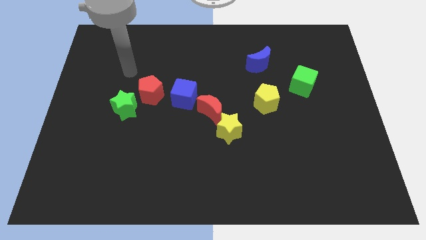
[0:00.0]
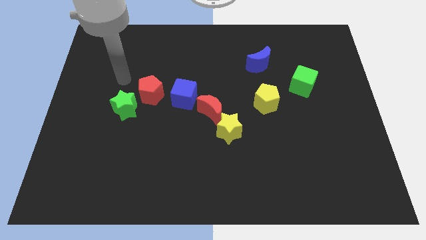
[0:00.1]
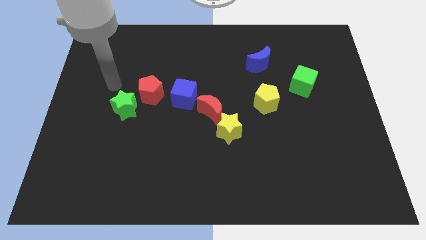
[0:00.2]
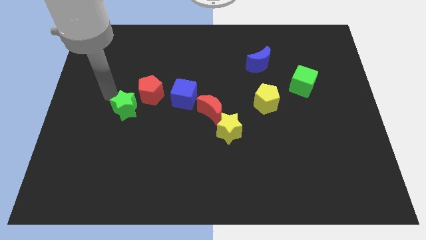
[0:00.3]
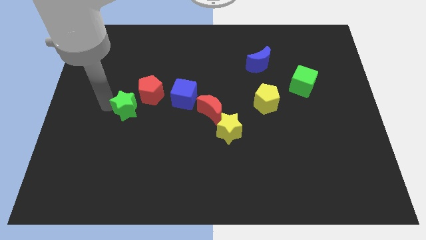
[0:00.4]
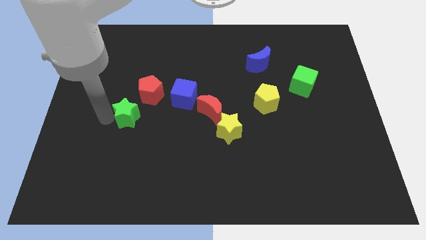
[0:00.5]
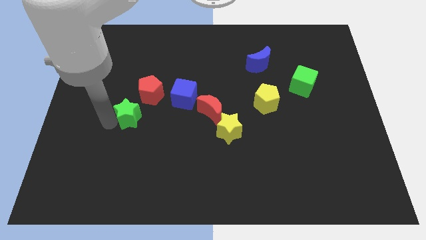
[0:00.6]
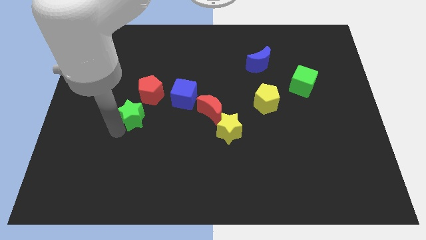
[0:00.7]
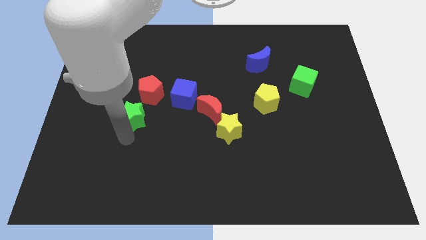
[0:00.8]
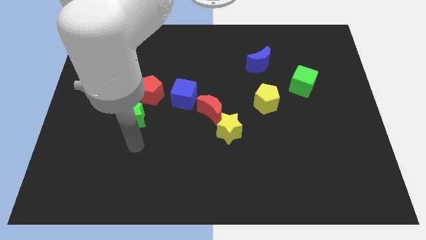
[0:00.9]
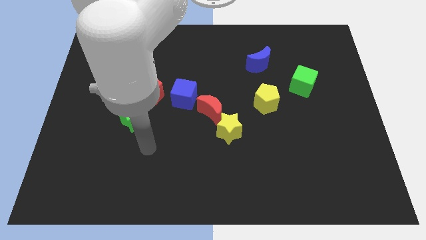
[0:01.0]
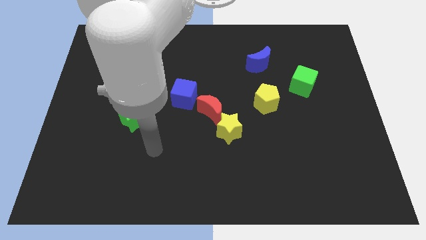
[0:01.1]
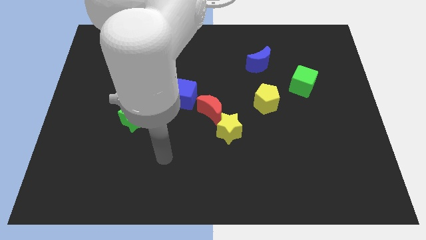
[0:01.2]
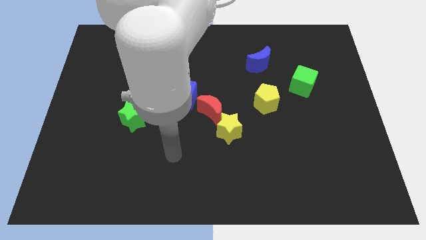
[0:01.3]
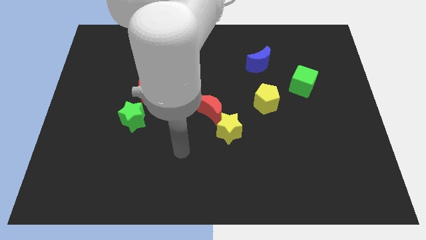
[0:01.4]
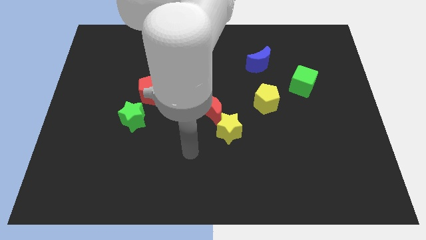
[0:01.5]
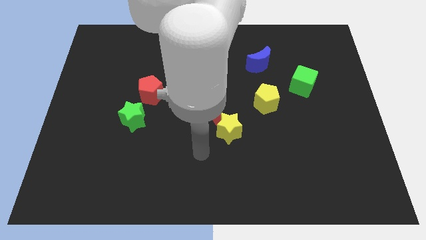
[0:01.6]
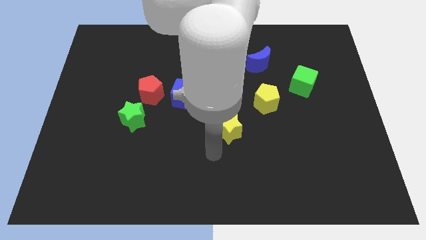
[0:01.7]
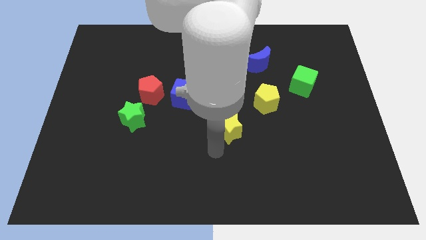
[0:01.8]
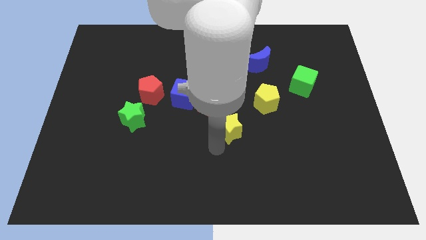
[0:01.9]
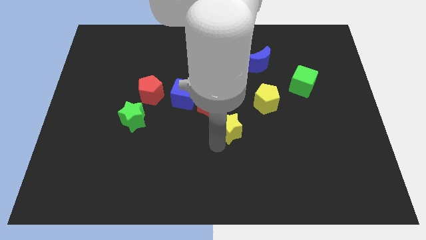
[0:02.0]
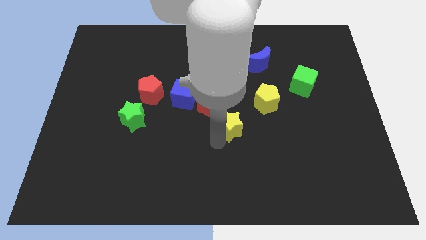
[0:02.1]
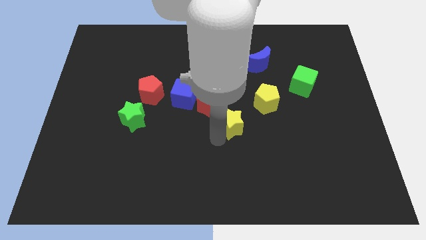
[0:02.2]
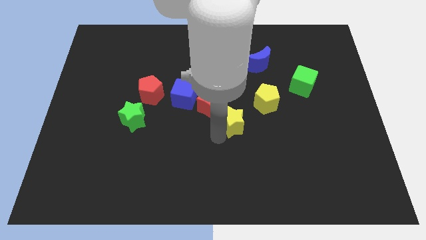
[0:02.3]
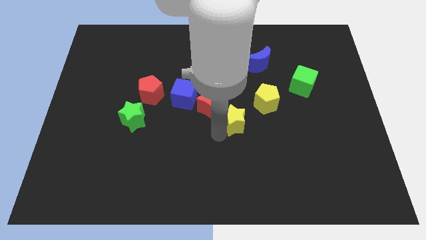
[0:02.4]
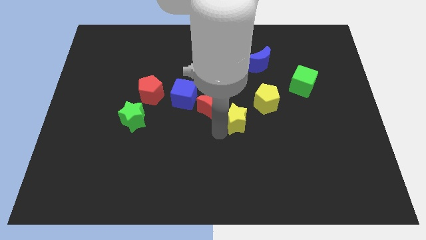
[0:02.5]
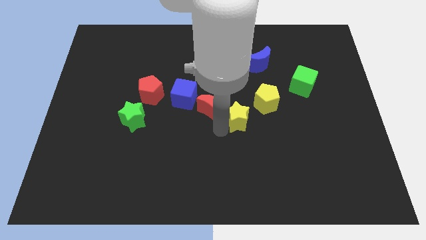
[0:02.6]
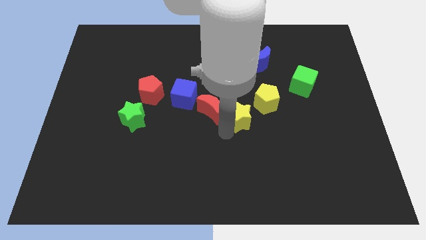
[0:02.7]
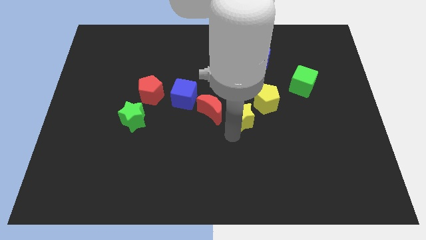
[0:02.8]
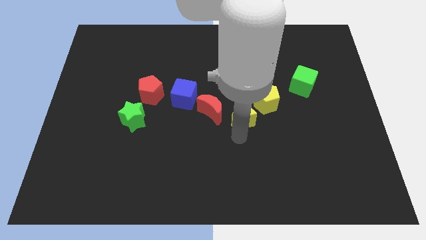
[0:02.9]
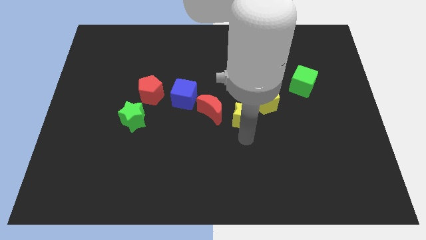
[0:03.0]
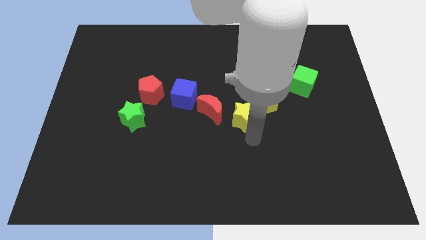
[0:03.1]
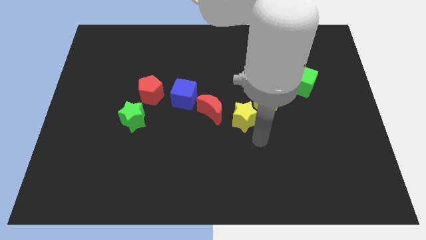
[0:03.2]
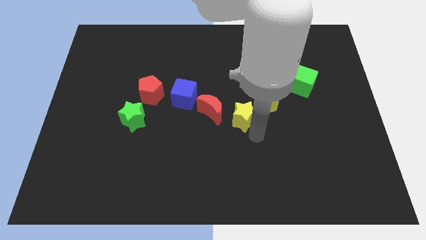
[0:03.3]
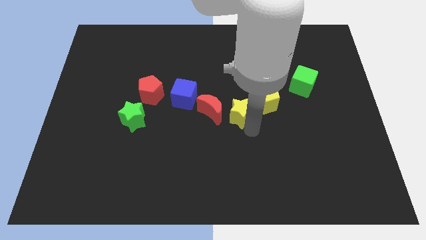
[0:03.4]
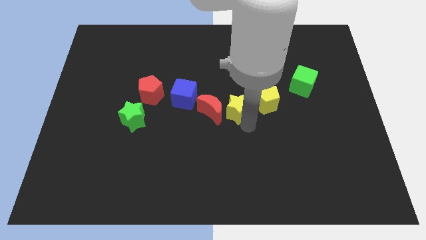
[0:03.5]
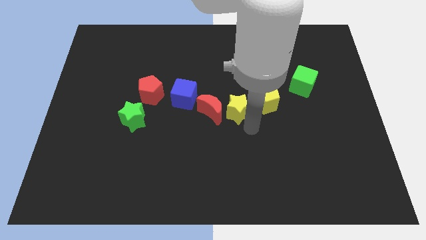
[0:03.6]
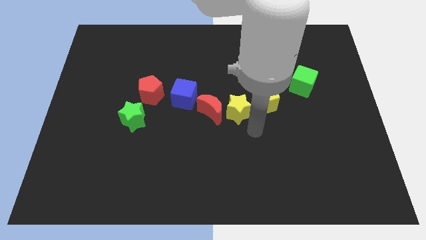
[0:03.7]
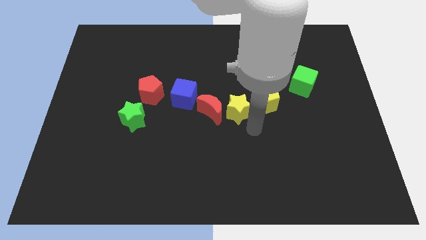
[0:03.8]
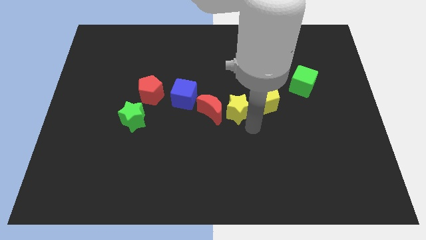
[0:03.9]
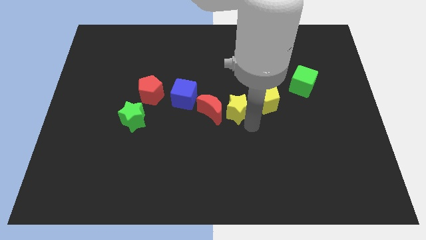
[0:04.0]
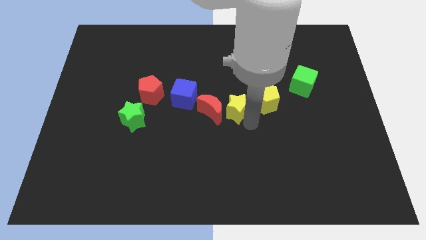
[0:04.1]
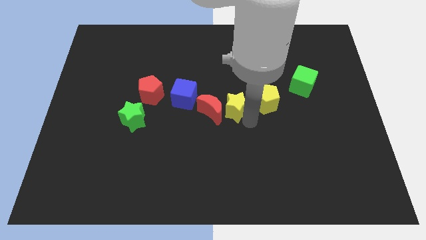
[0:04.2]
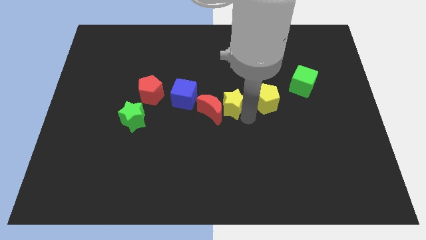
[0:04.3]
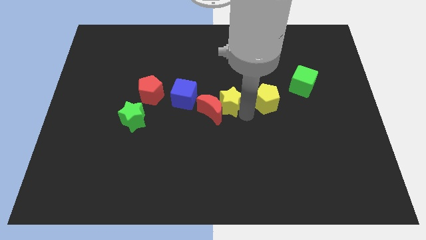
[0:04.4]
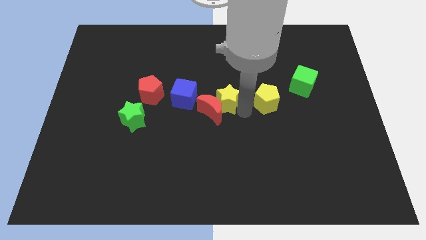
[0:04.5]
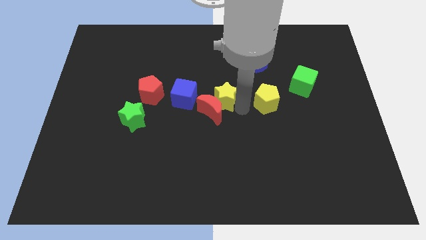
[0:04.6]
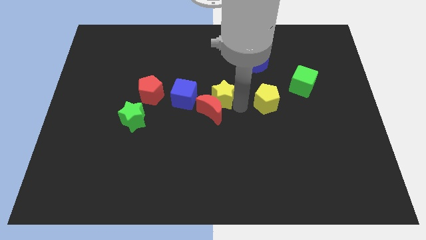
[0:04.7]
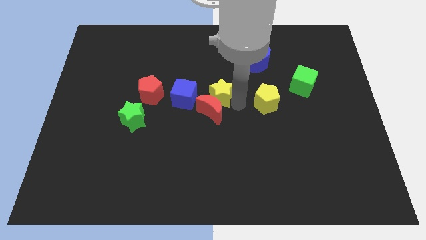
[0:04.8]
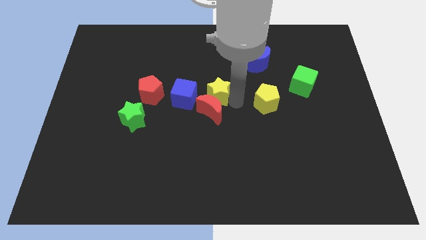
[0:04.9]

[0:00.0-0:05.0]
slightly move the yellow star upwards and left

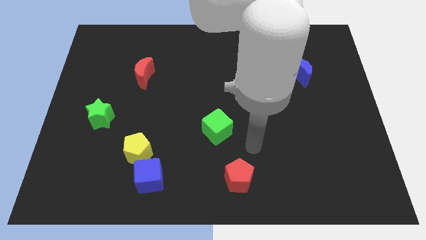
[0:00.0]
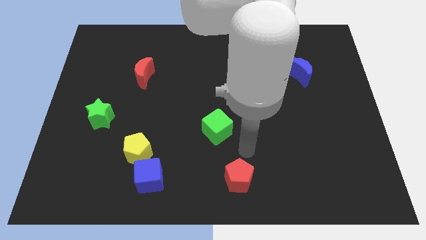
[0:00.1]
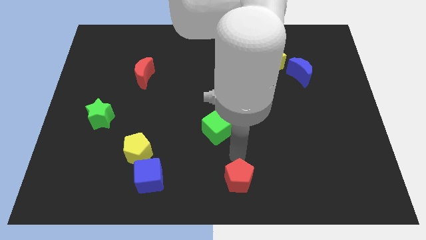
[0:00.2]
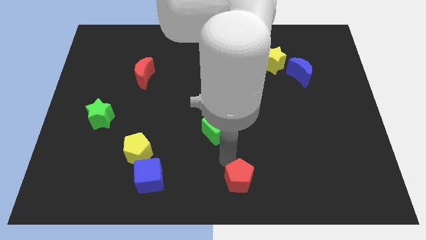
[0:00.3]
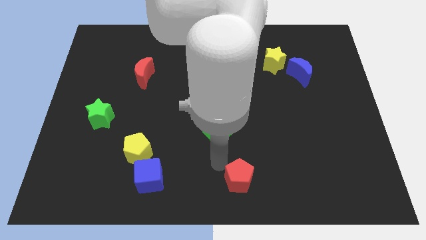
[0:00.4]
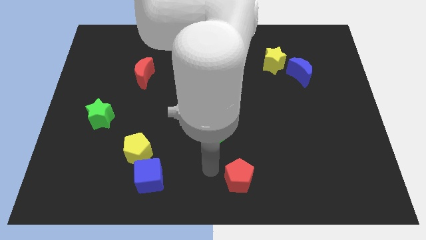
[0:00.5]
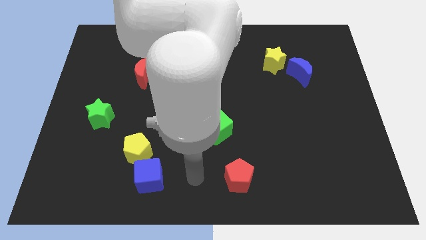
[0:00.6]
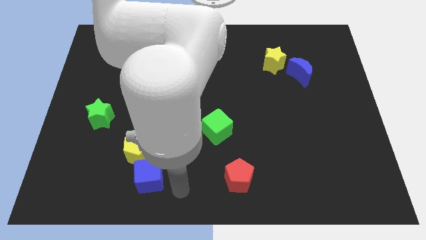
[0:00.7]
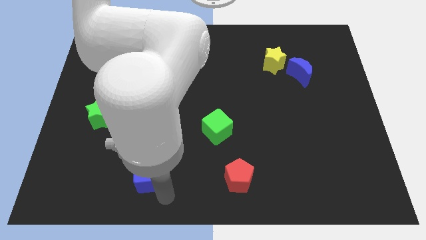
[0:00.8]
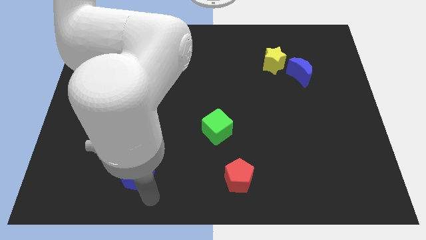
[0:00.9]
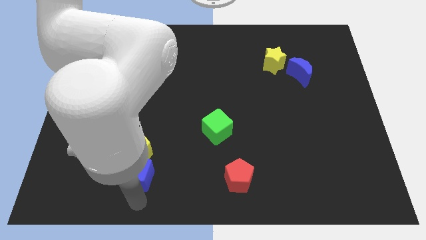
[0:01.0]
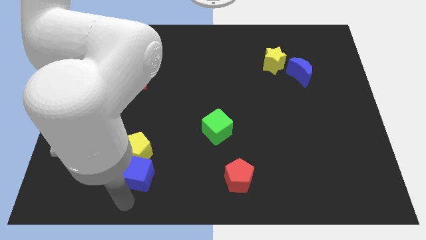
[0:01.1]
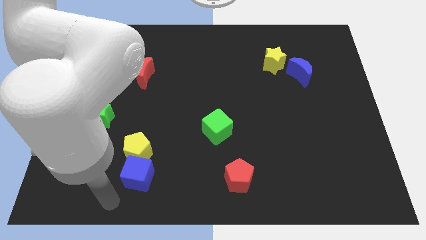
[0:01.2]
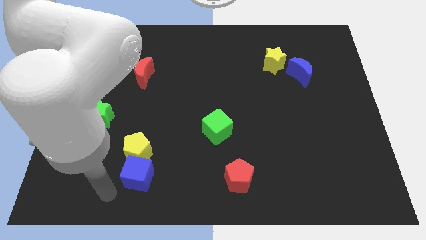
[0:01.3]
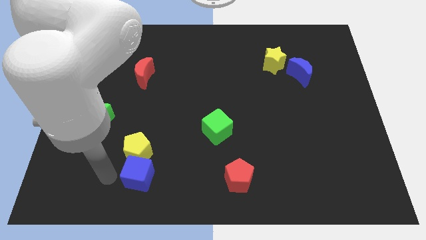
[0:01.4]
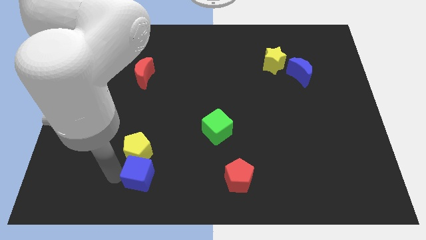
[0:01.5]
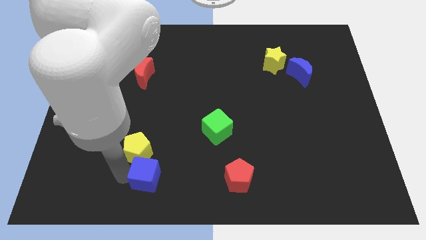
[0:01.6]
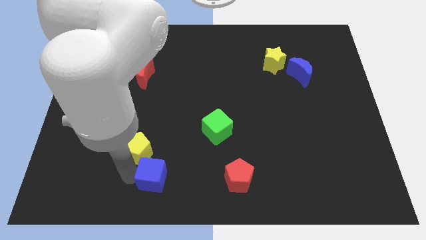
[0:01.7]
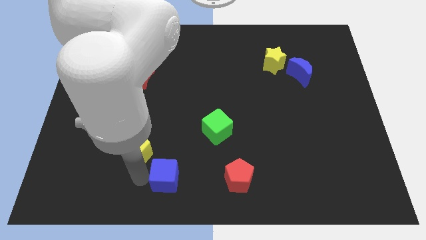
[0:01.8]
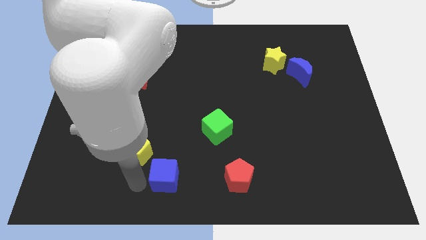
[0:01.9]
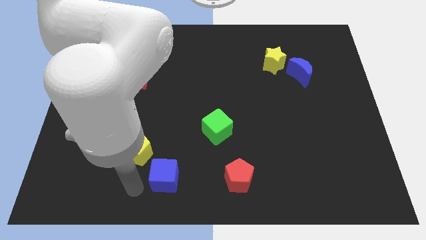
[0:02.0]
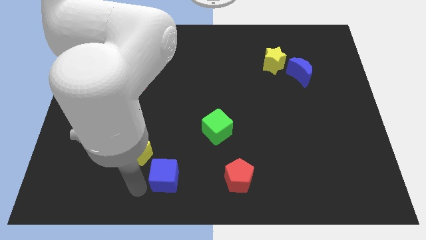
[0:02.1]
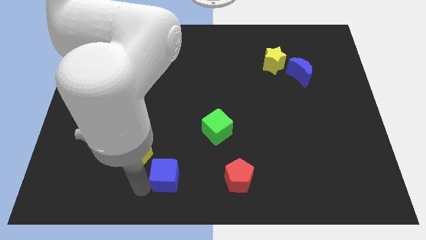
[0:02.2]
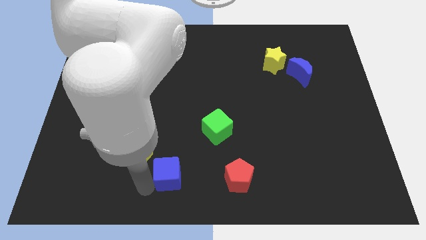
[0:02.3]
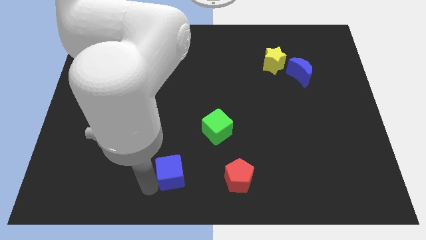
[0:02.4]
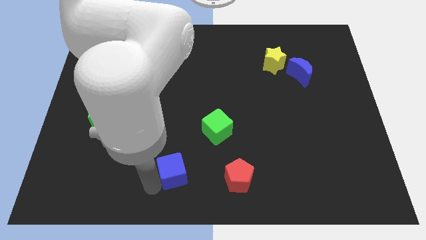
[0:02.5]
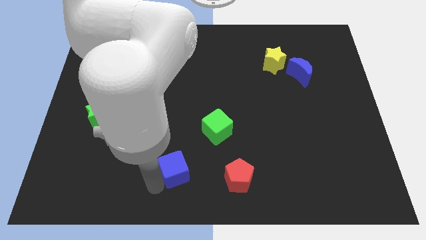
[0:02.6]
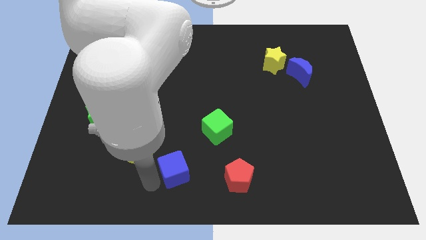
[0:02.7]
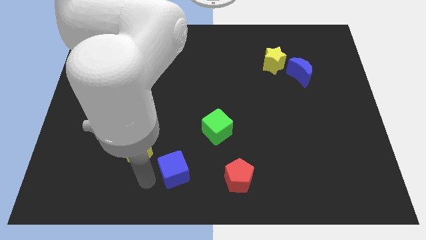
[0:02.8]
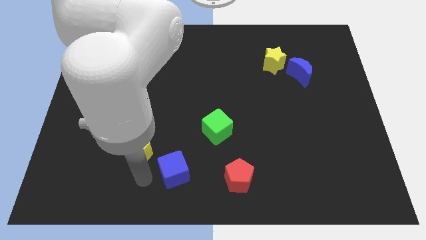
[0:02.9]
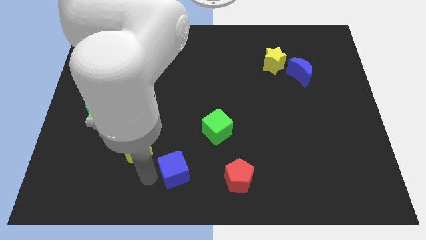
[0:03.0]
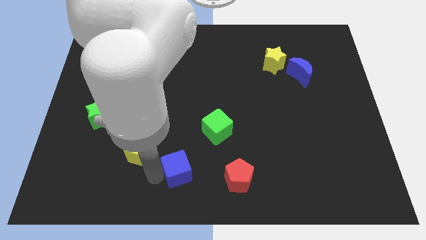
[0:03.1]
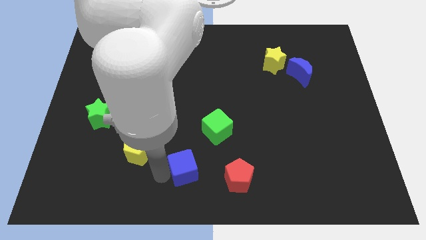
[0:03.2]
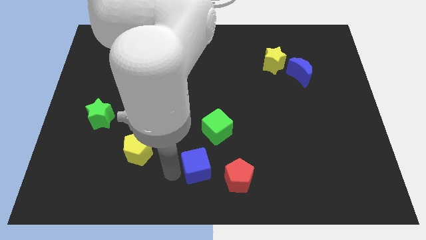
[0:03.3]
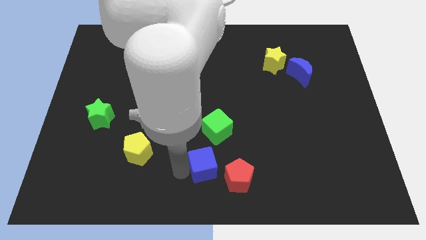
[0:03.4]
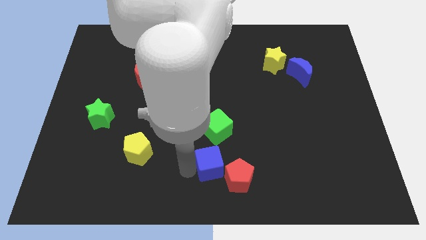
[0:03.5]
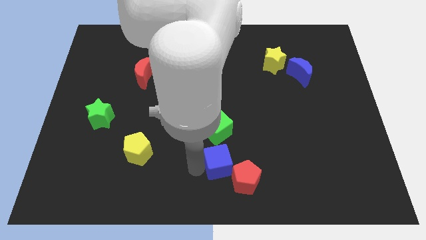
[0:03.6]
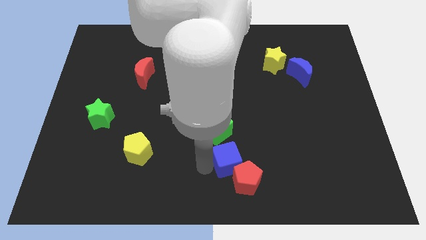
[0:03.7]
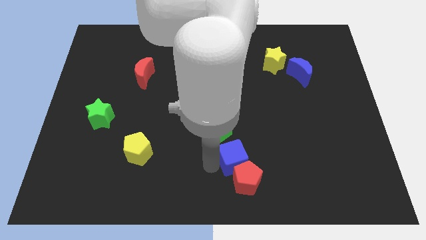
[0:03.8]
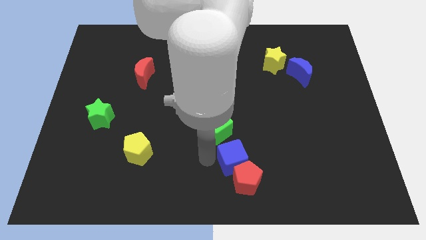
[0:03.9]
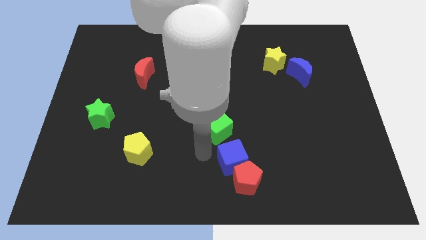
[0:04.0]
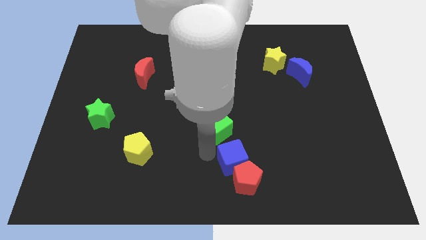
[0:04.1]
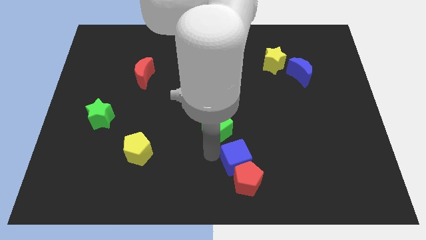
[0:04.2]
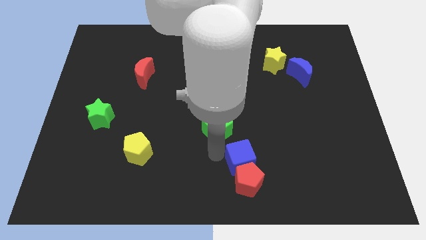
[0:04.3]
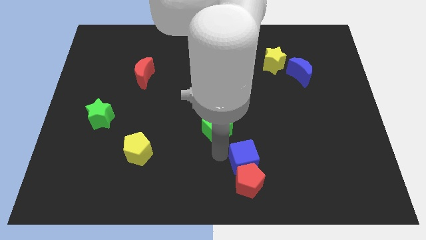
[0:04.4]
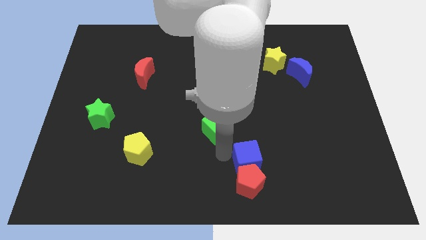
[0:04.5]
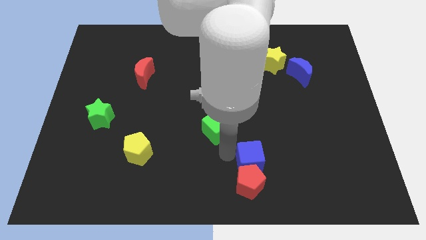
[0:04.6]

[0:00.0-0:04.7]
push the blue cube right
